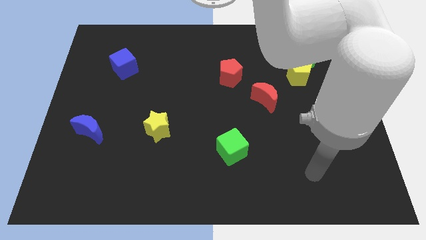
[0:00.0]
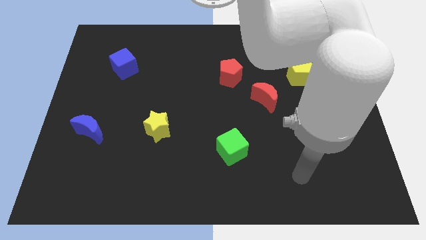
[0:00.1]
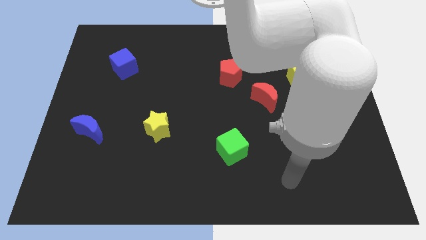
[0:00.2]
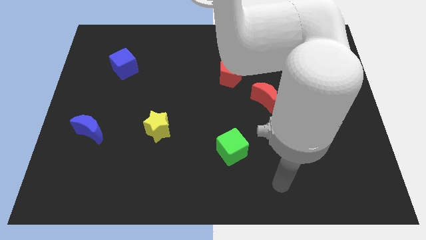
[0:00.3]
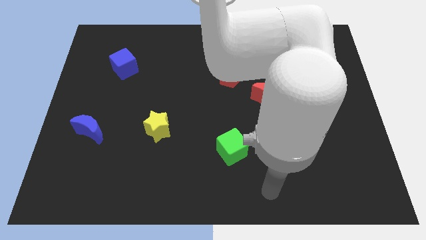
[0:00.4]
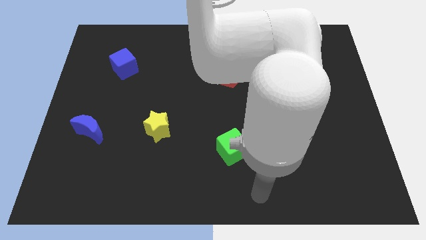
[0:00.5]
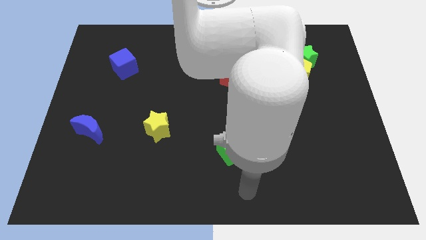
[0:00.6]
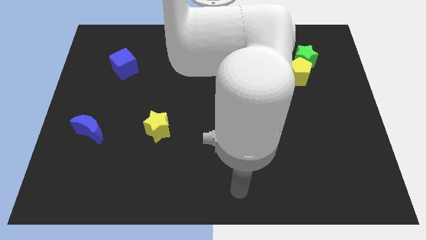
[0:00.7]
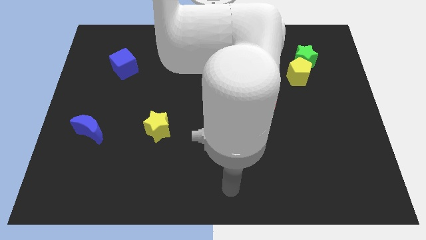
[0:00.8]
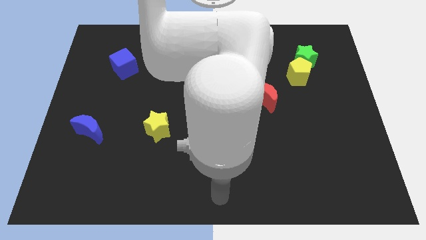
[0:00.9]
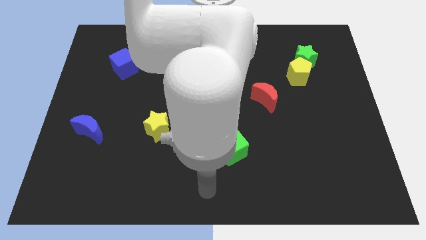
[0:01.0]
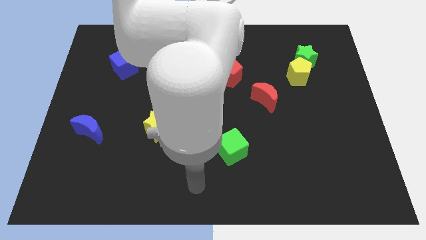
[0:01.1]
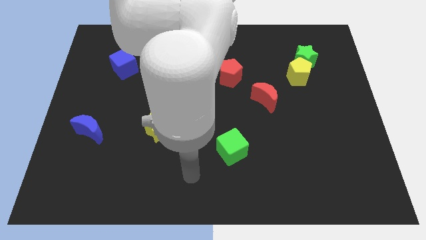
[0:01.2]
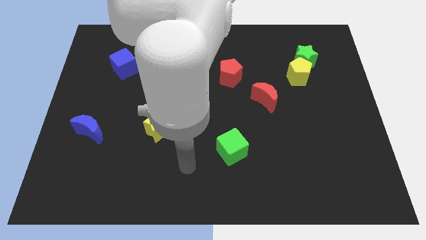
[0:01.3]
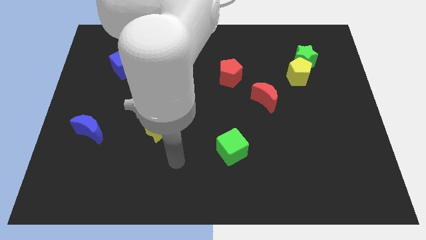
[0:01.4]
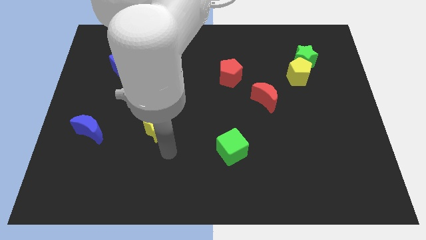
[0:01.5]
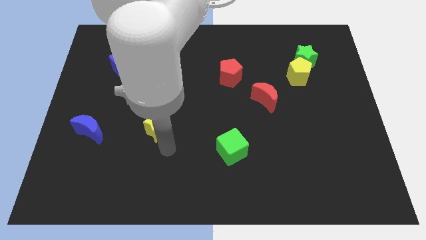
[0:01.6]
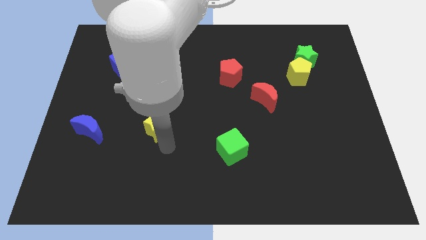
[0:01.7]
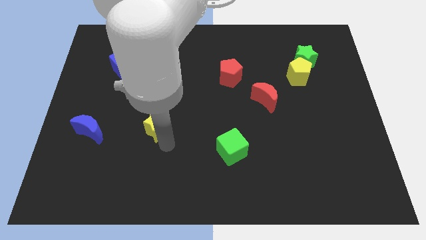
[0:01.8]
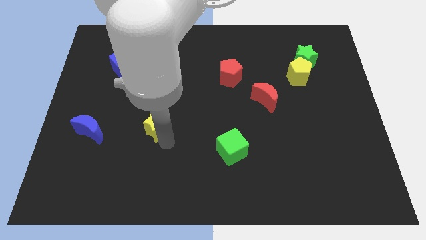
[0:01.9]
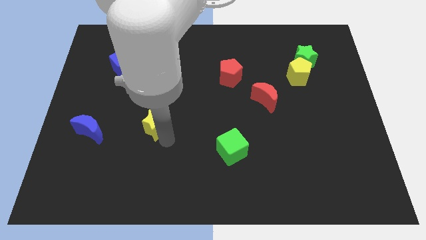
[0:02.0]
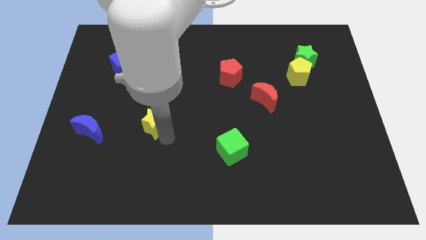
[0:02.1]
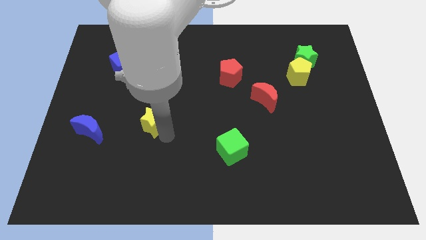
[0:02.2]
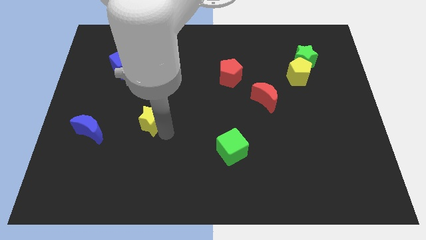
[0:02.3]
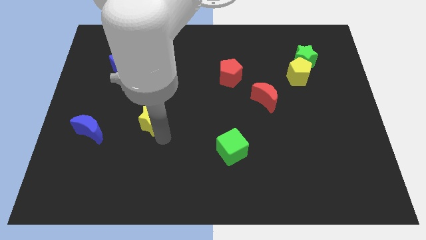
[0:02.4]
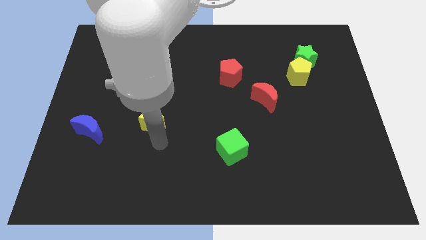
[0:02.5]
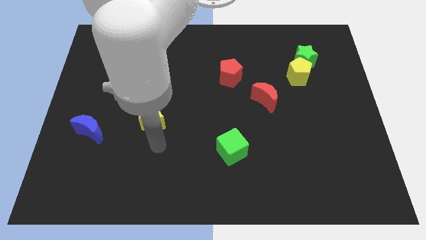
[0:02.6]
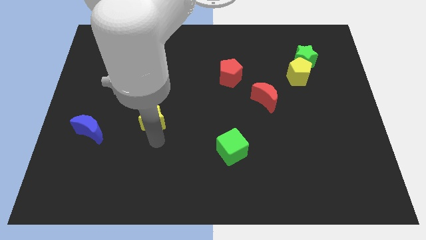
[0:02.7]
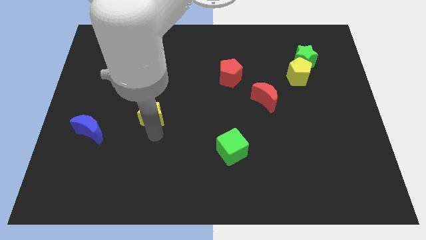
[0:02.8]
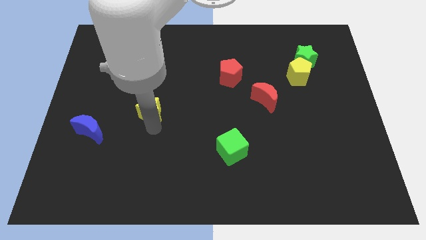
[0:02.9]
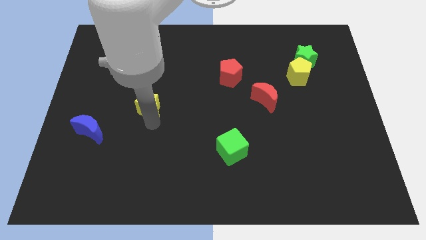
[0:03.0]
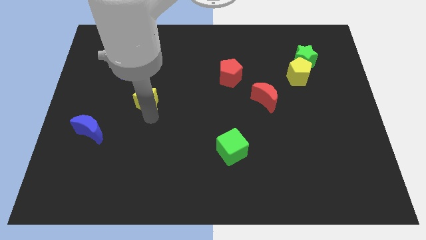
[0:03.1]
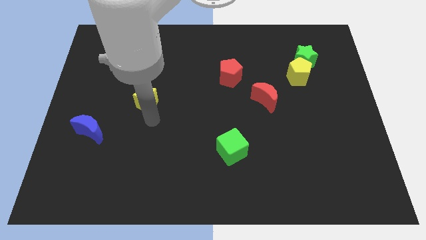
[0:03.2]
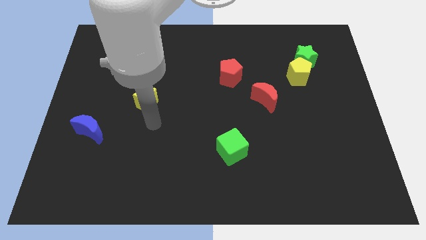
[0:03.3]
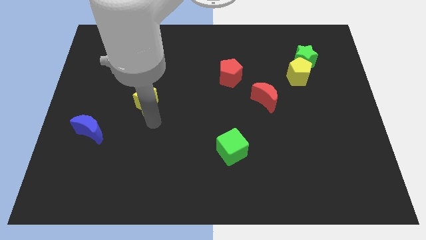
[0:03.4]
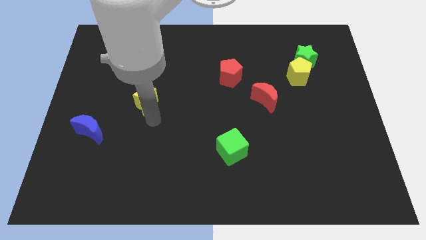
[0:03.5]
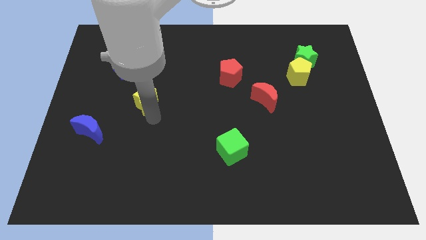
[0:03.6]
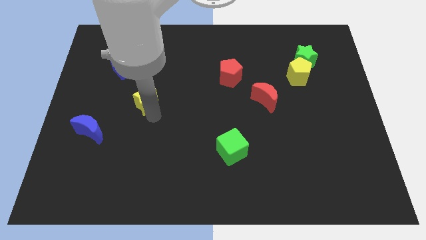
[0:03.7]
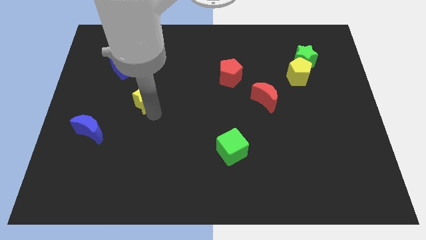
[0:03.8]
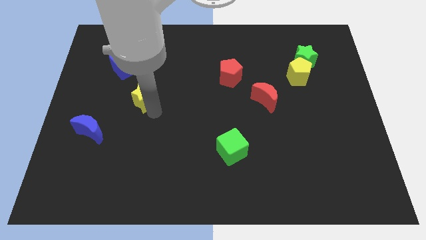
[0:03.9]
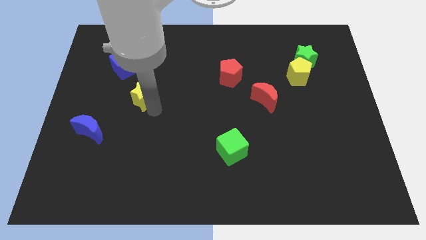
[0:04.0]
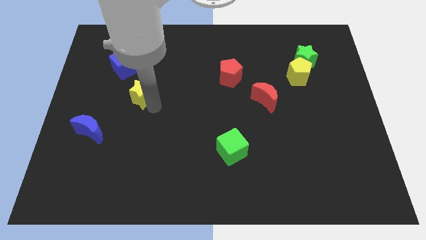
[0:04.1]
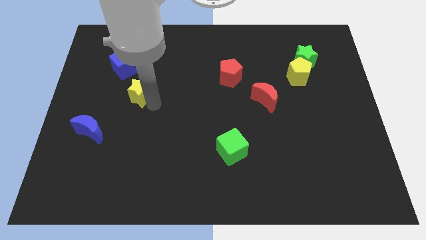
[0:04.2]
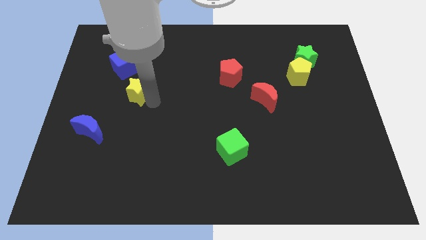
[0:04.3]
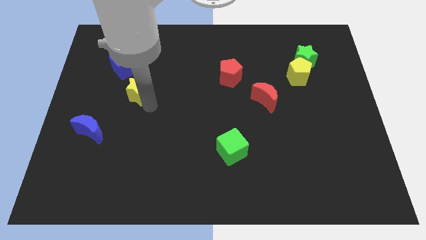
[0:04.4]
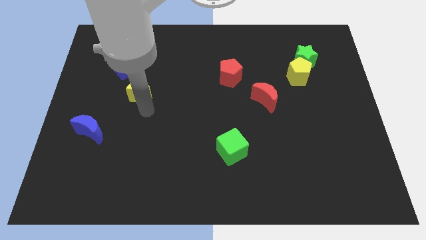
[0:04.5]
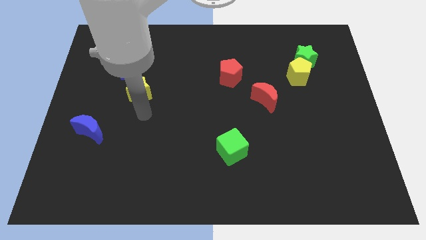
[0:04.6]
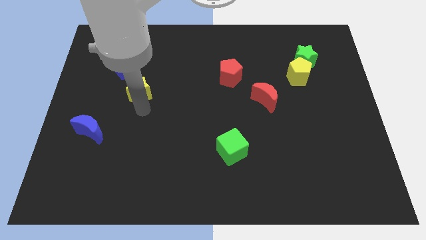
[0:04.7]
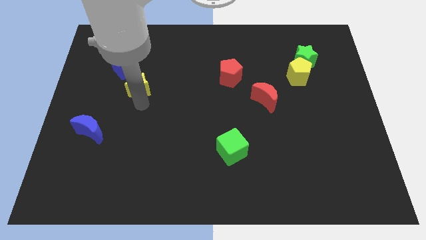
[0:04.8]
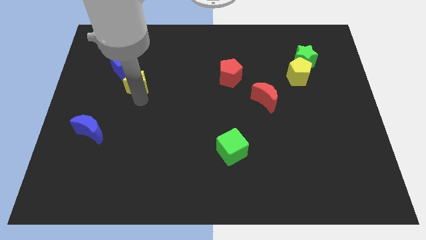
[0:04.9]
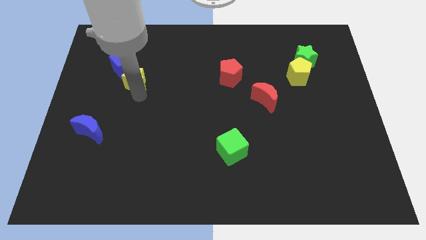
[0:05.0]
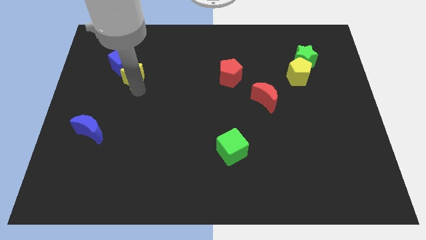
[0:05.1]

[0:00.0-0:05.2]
push the yellow star towards the blue cube

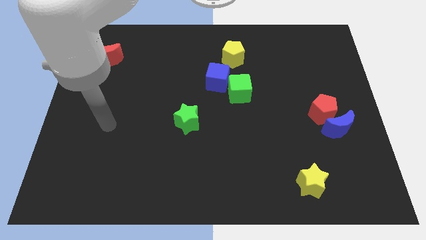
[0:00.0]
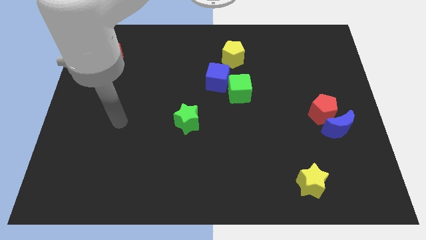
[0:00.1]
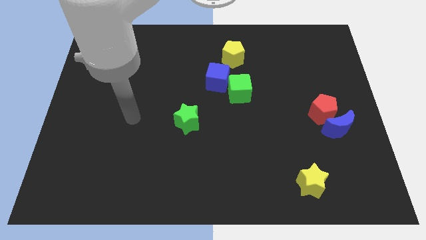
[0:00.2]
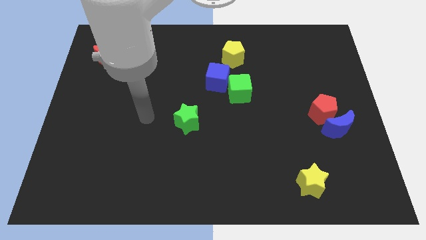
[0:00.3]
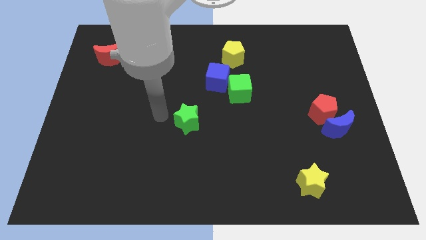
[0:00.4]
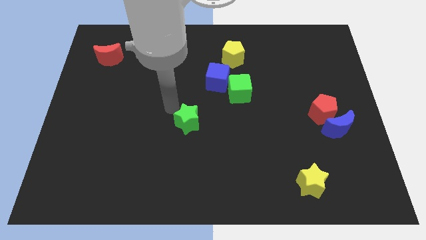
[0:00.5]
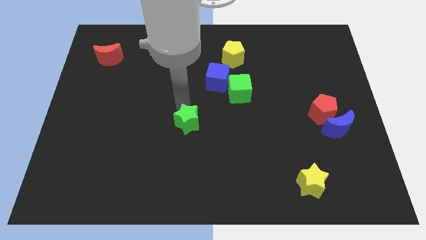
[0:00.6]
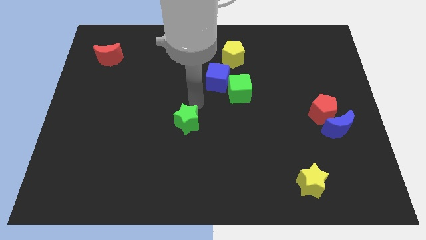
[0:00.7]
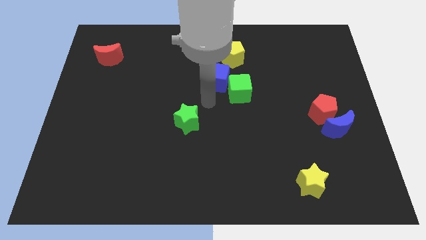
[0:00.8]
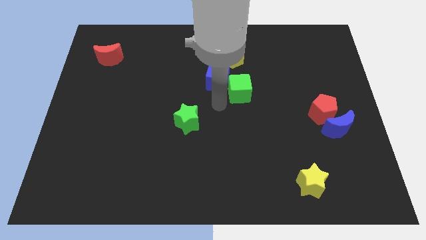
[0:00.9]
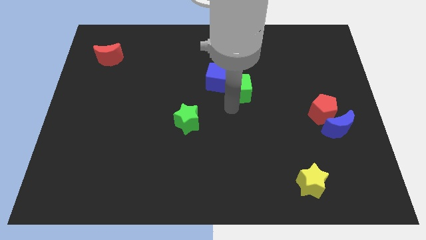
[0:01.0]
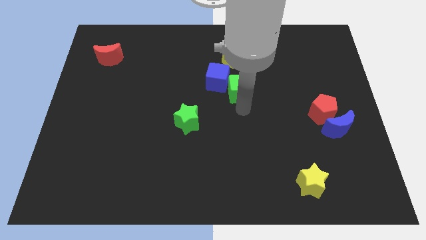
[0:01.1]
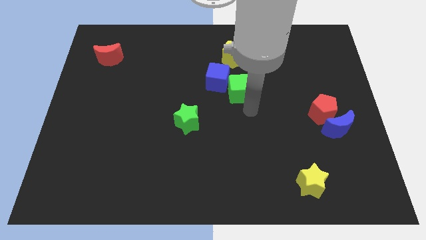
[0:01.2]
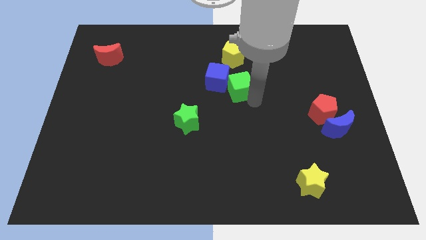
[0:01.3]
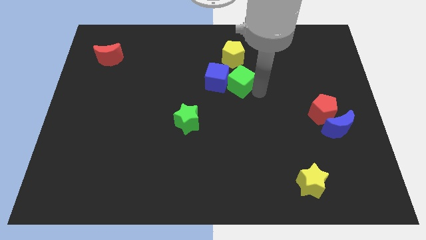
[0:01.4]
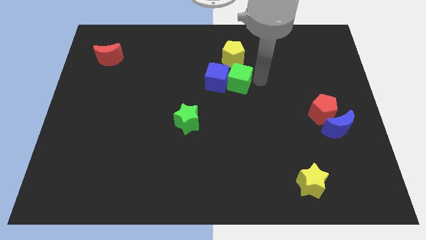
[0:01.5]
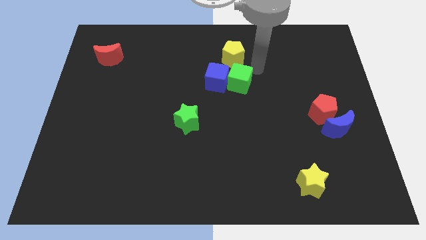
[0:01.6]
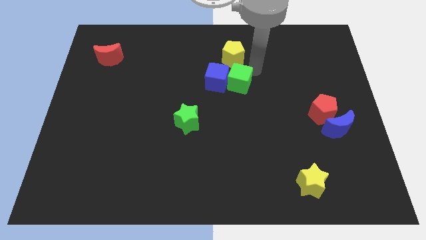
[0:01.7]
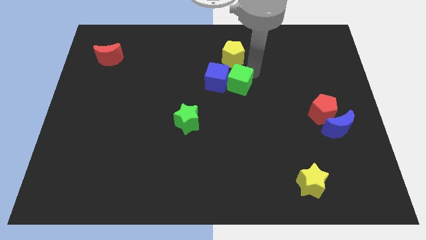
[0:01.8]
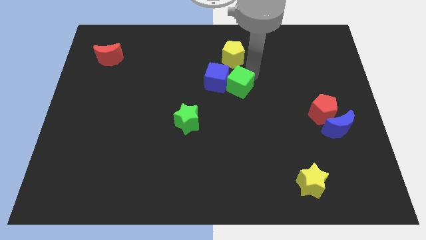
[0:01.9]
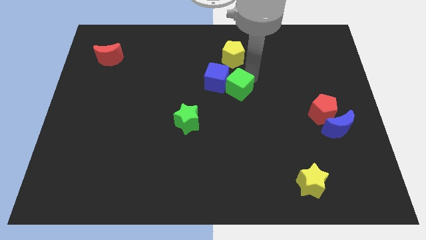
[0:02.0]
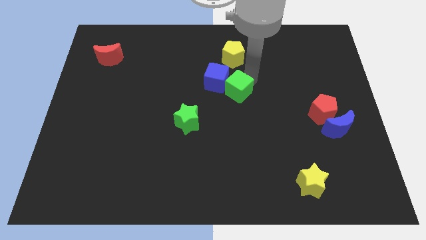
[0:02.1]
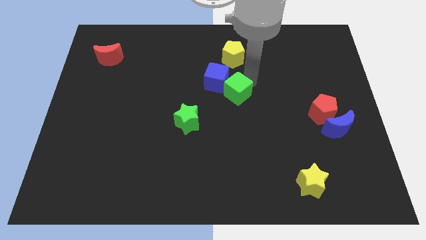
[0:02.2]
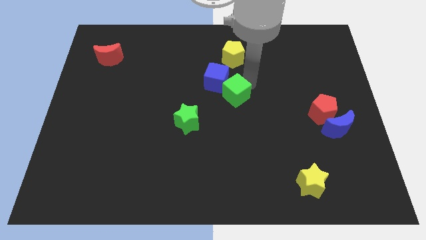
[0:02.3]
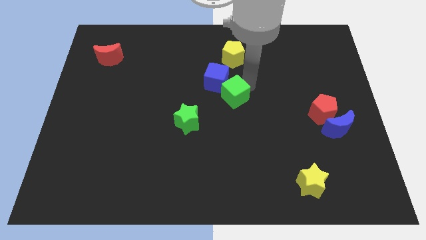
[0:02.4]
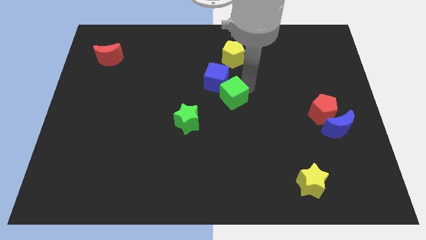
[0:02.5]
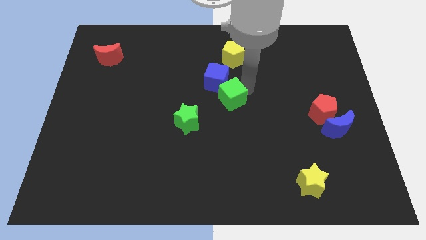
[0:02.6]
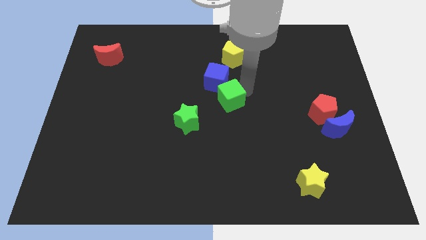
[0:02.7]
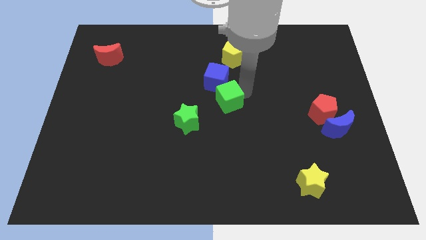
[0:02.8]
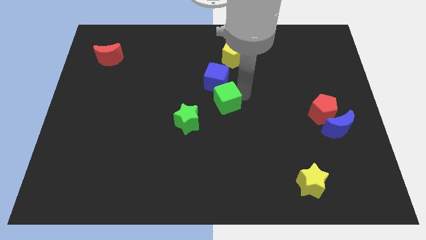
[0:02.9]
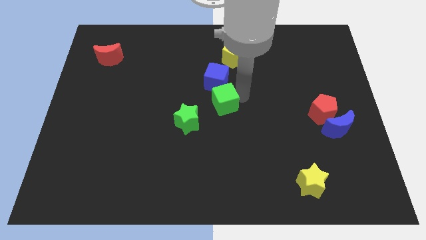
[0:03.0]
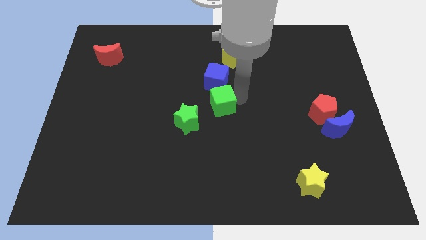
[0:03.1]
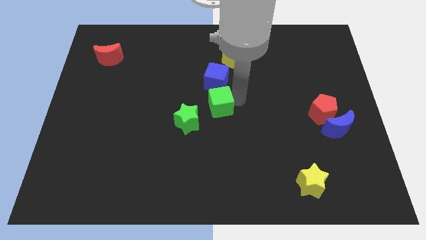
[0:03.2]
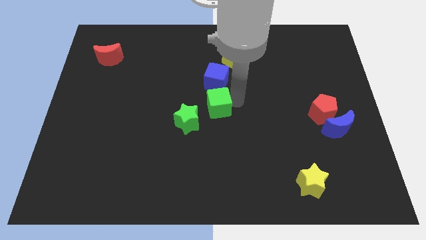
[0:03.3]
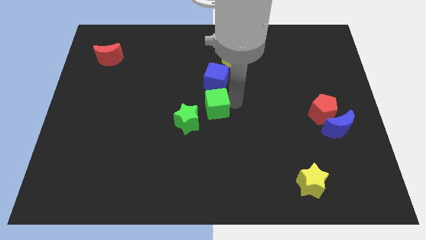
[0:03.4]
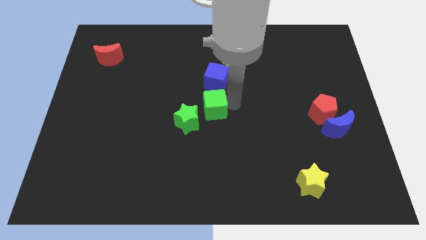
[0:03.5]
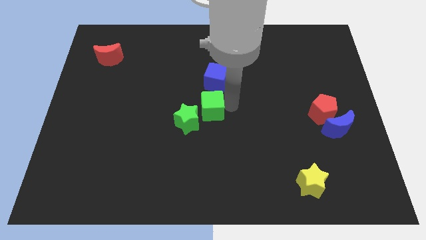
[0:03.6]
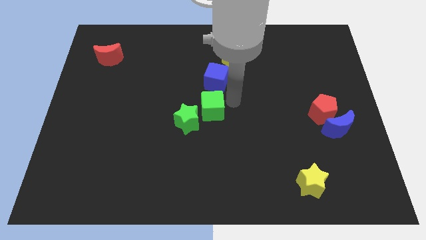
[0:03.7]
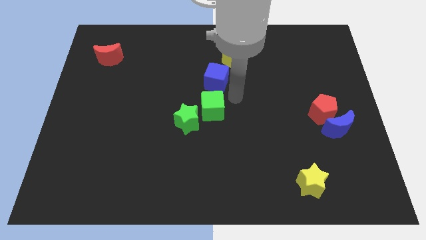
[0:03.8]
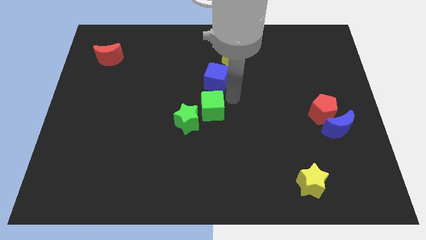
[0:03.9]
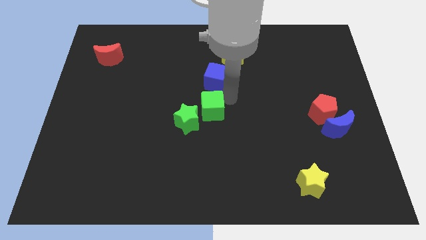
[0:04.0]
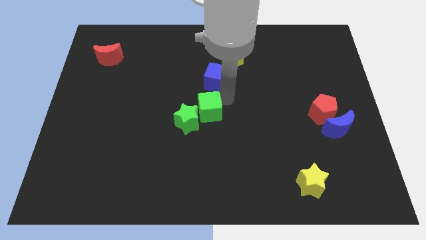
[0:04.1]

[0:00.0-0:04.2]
move the green cube towards the green star
